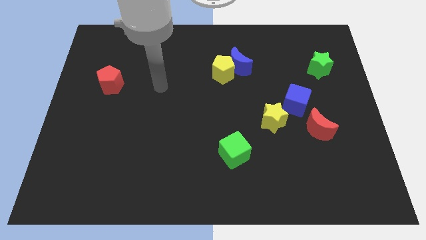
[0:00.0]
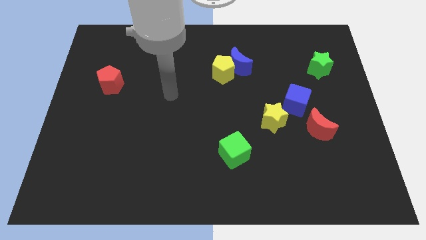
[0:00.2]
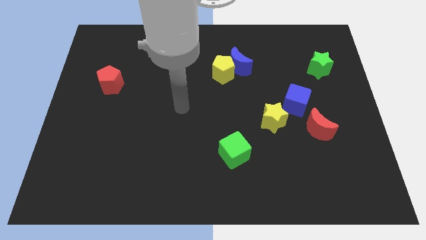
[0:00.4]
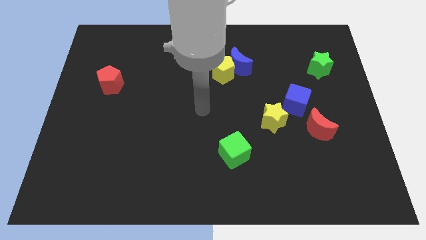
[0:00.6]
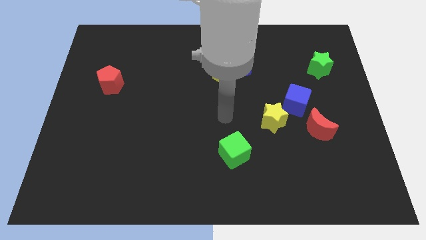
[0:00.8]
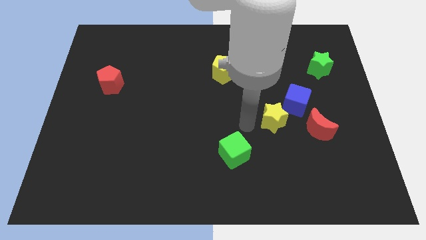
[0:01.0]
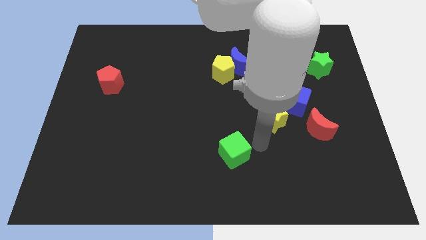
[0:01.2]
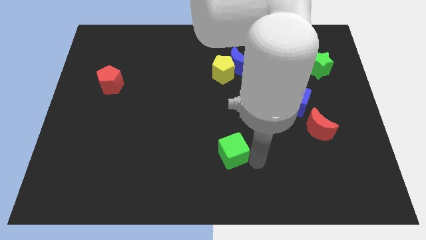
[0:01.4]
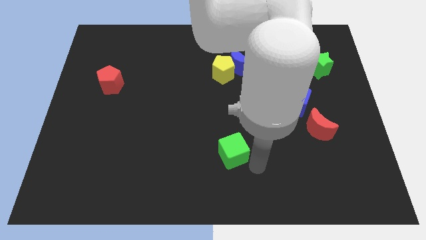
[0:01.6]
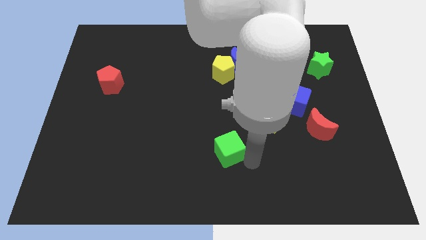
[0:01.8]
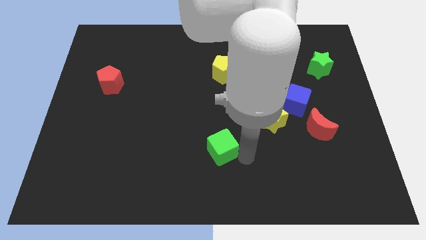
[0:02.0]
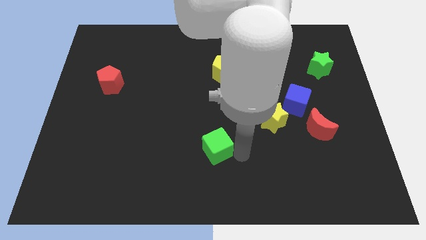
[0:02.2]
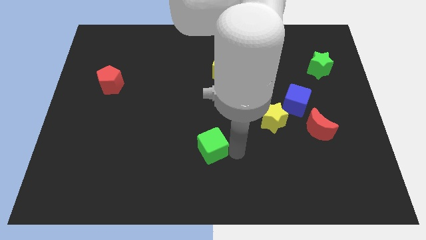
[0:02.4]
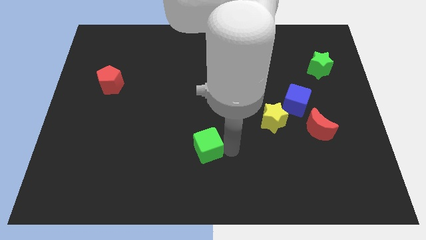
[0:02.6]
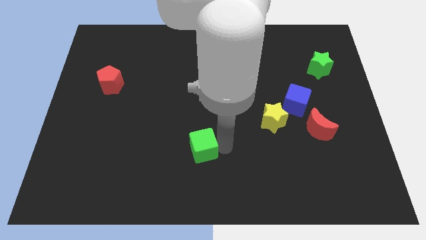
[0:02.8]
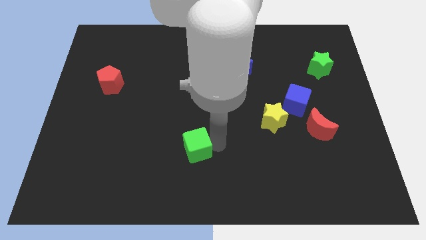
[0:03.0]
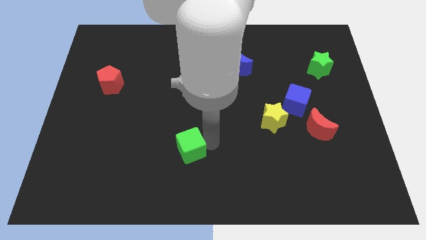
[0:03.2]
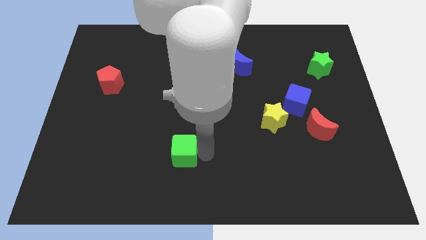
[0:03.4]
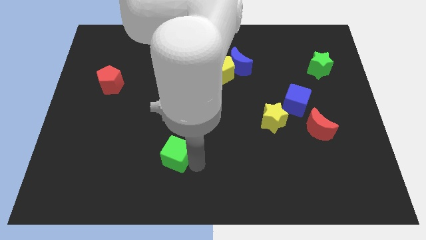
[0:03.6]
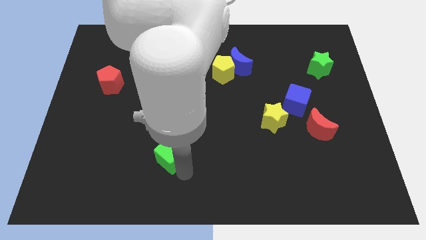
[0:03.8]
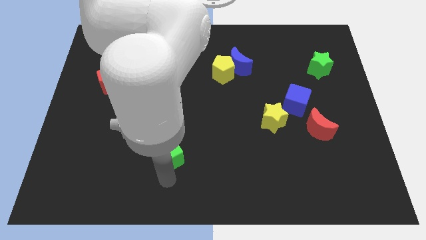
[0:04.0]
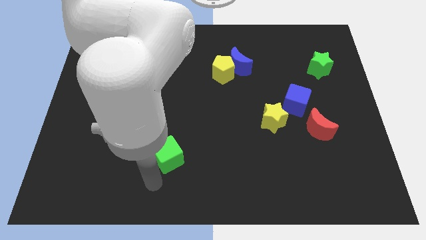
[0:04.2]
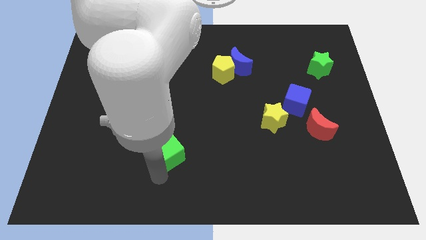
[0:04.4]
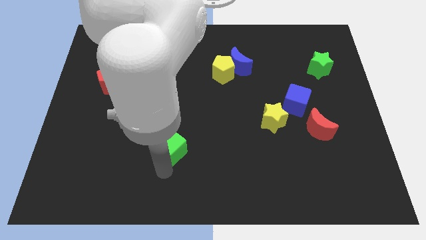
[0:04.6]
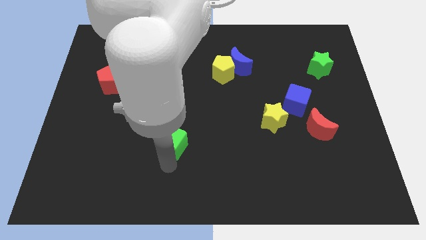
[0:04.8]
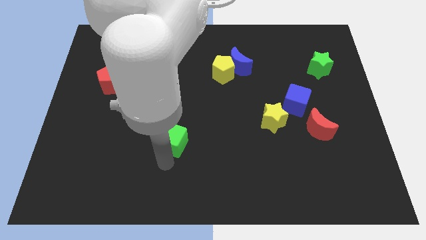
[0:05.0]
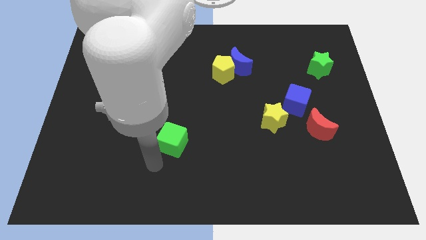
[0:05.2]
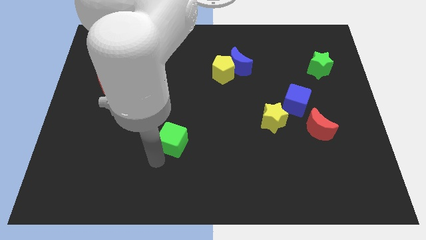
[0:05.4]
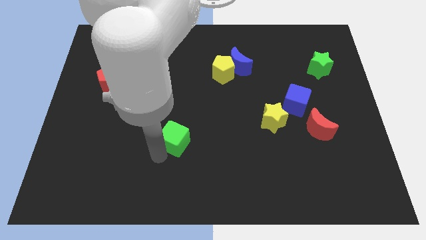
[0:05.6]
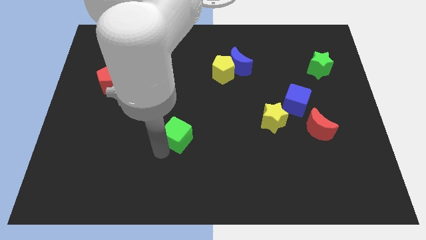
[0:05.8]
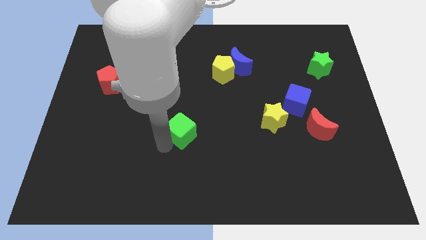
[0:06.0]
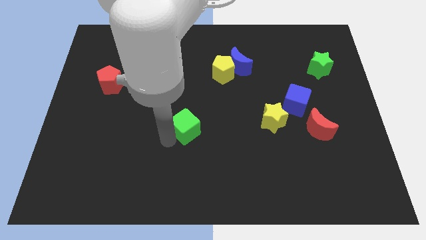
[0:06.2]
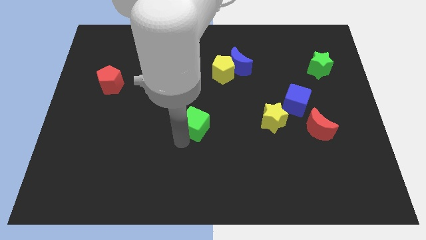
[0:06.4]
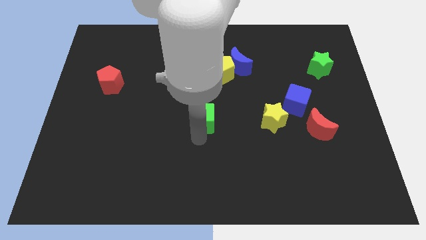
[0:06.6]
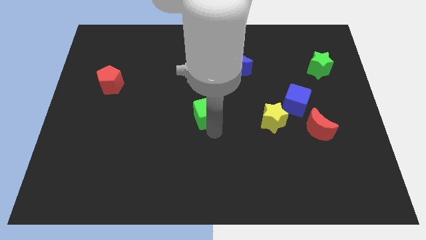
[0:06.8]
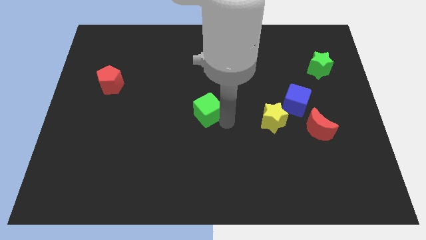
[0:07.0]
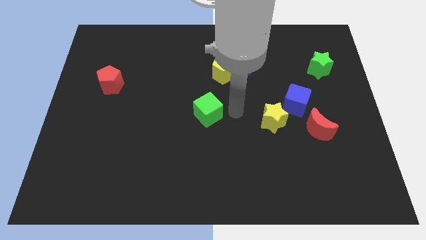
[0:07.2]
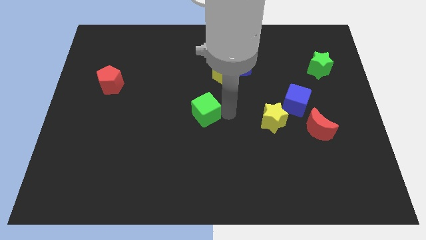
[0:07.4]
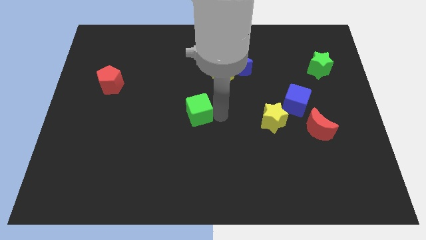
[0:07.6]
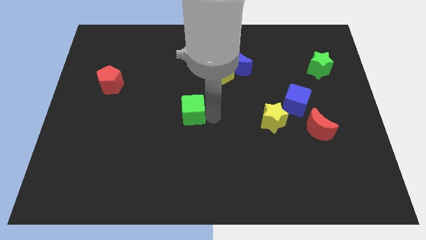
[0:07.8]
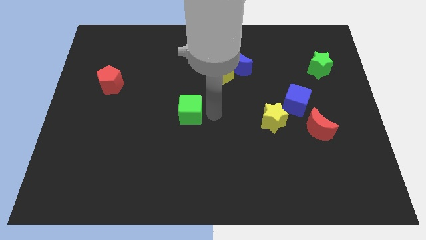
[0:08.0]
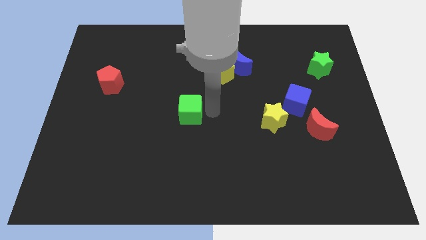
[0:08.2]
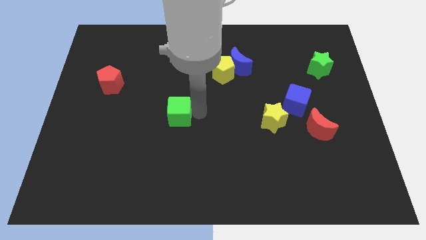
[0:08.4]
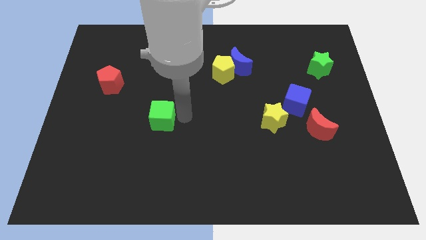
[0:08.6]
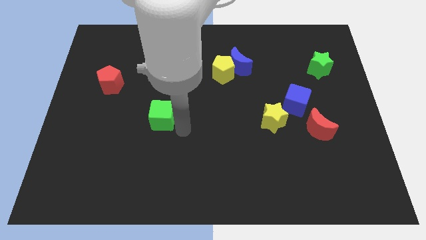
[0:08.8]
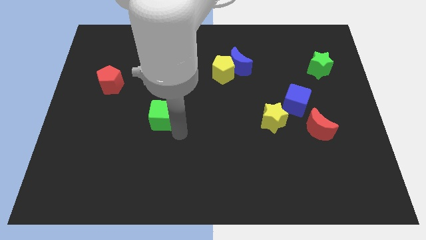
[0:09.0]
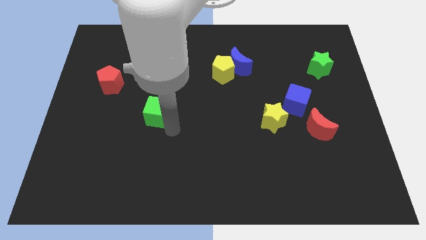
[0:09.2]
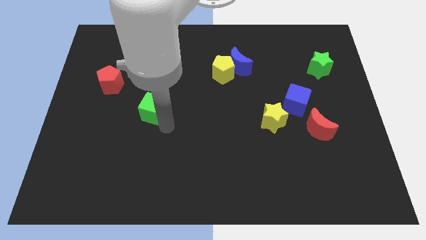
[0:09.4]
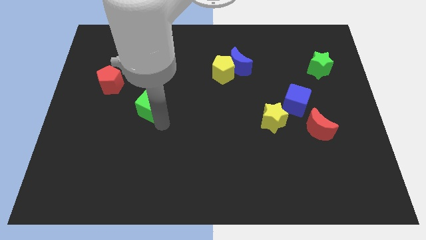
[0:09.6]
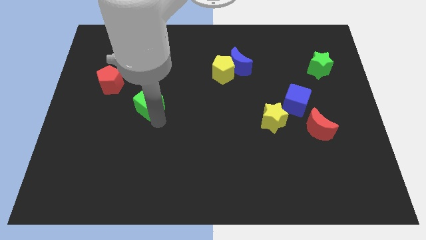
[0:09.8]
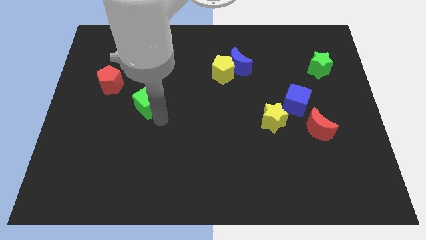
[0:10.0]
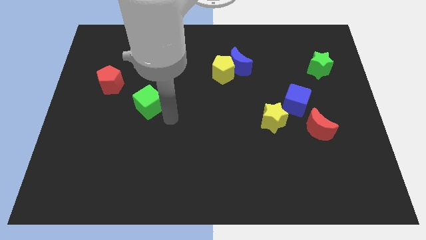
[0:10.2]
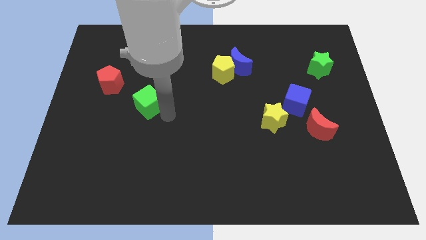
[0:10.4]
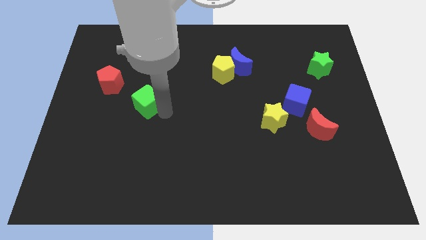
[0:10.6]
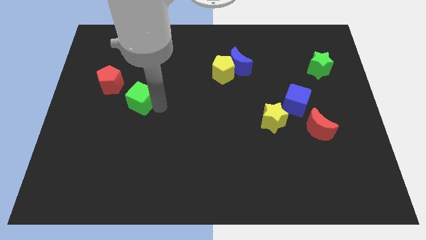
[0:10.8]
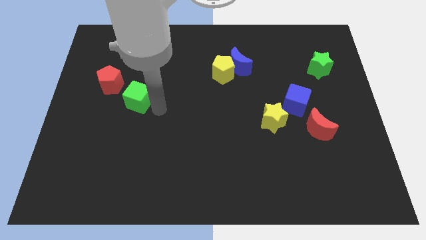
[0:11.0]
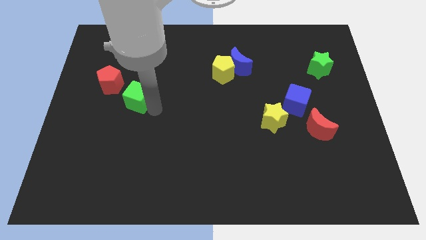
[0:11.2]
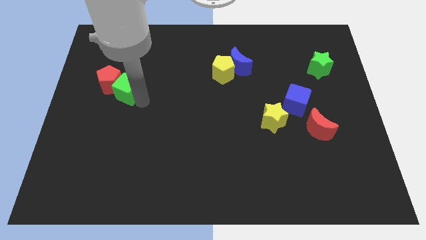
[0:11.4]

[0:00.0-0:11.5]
push the green cube next to the red pentagon

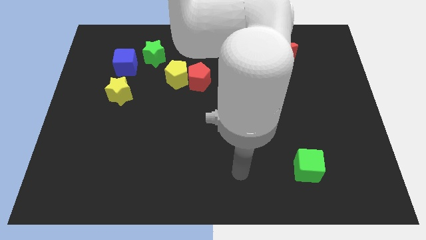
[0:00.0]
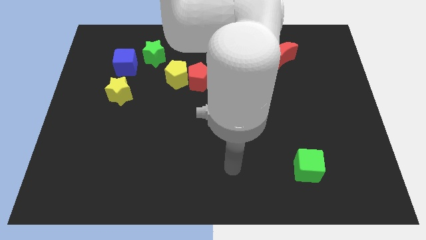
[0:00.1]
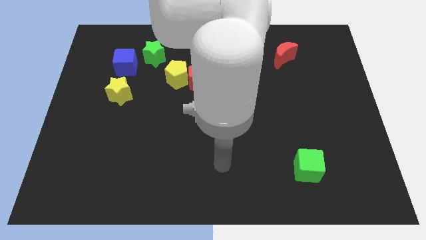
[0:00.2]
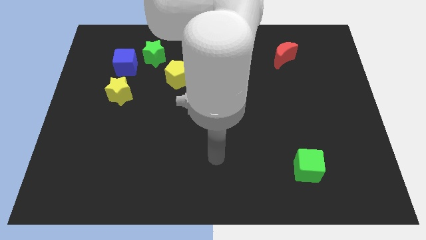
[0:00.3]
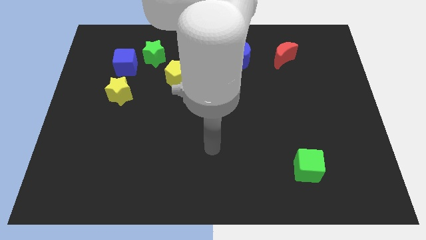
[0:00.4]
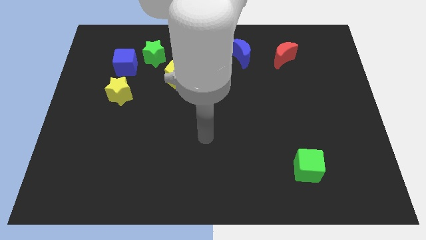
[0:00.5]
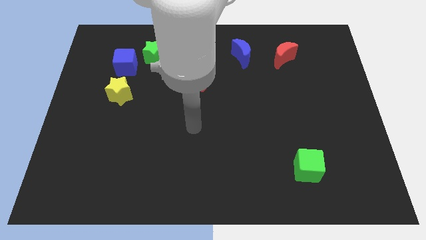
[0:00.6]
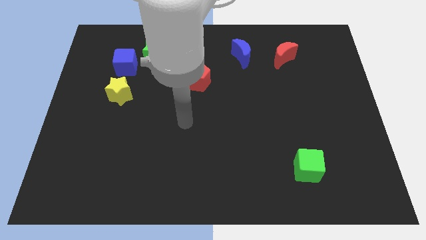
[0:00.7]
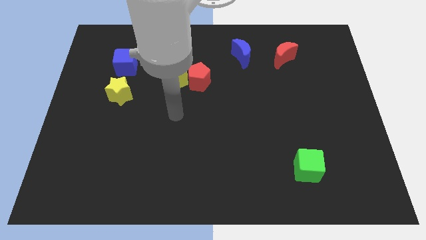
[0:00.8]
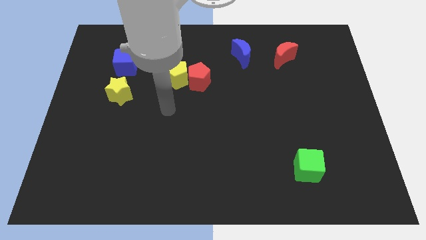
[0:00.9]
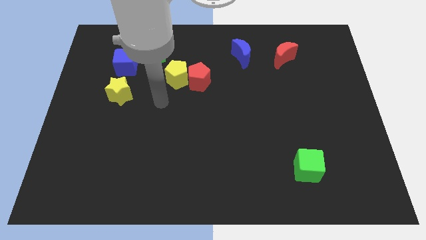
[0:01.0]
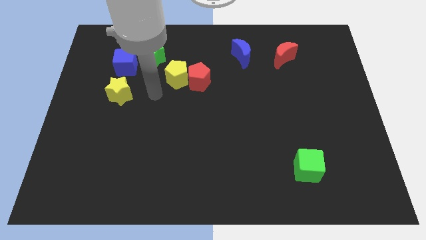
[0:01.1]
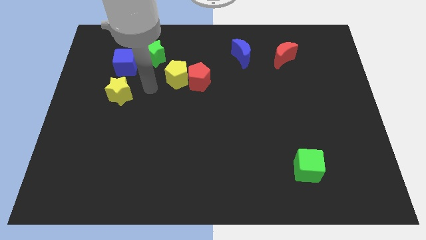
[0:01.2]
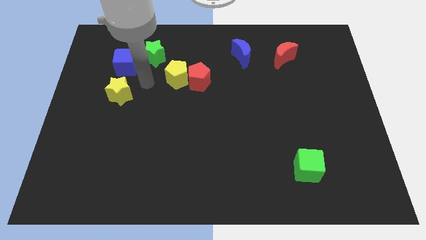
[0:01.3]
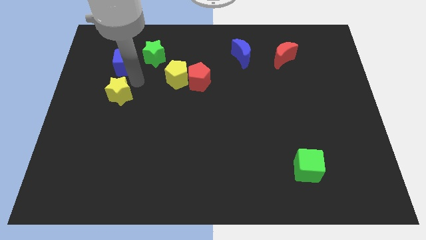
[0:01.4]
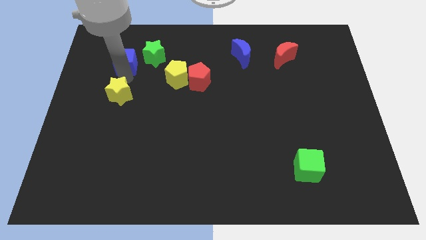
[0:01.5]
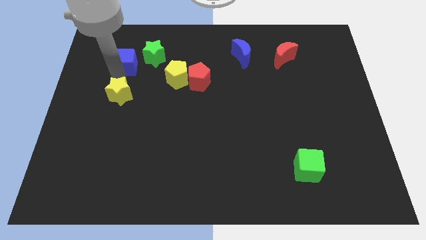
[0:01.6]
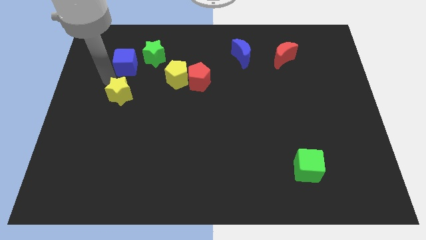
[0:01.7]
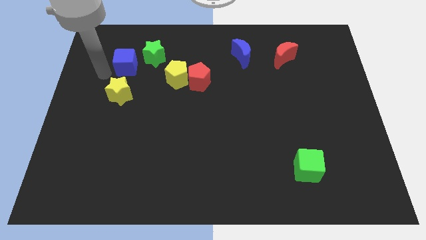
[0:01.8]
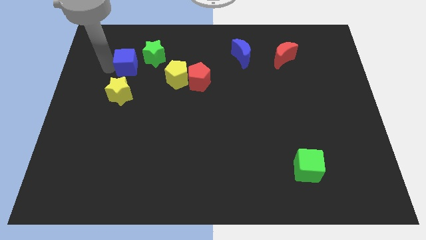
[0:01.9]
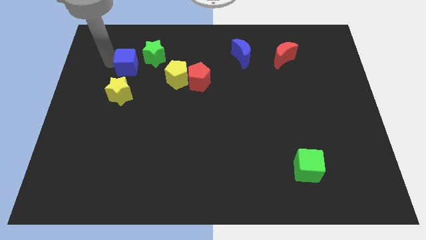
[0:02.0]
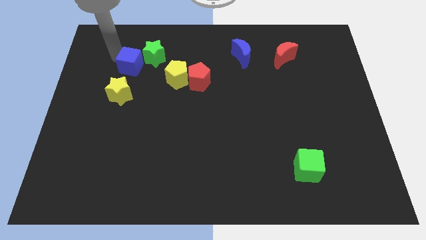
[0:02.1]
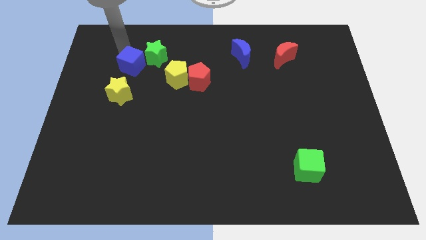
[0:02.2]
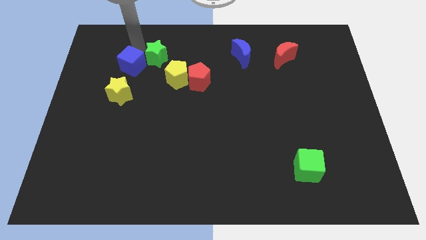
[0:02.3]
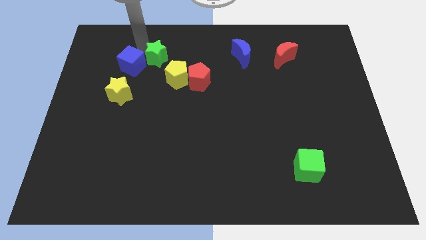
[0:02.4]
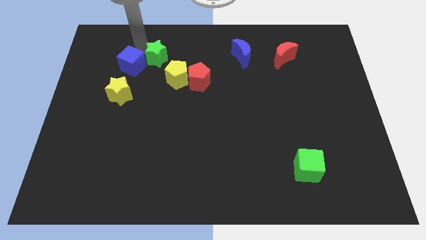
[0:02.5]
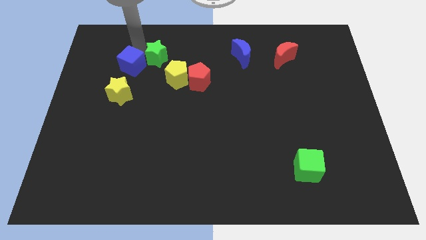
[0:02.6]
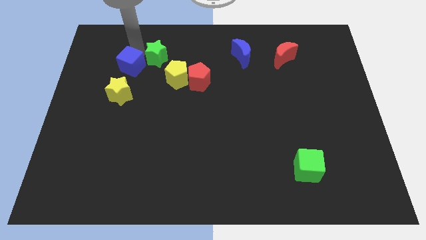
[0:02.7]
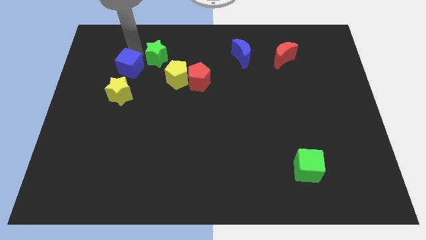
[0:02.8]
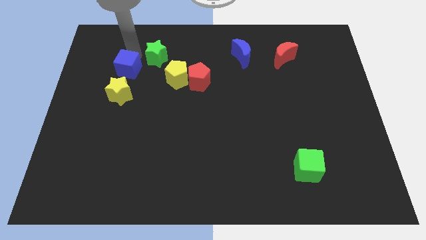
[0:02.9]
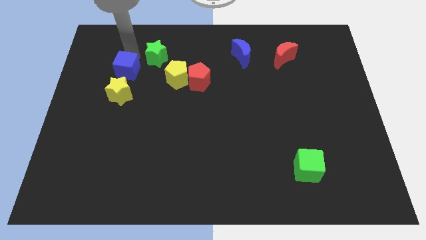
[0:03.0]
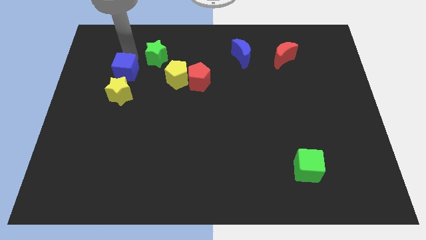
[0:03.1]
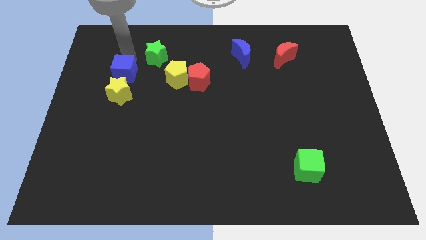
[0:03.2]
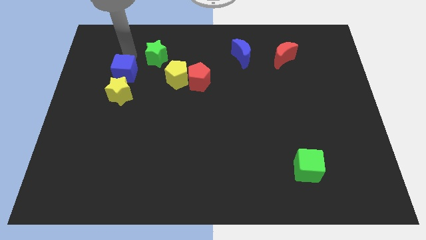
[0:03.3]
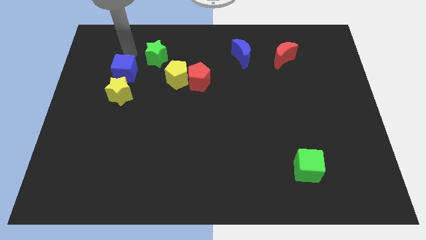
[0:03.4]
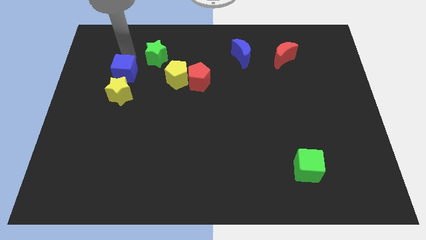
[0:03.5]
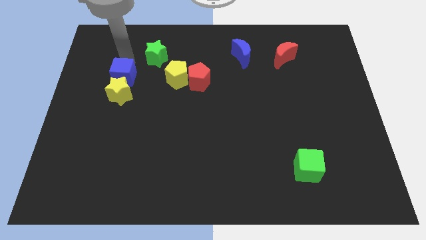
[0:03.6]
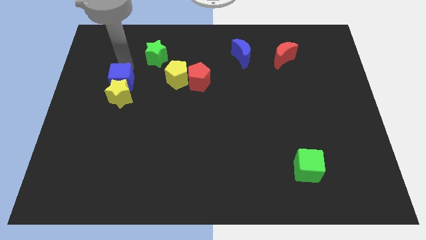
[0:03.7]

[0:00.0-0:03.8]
push the blue cube next to the yellow star
